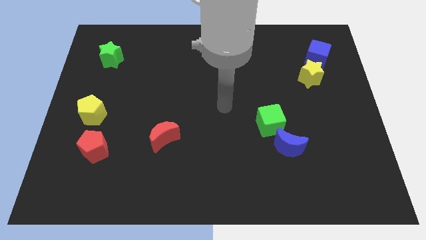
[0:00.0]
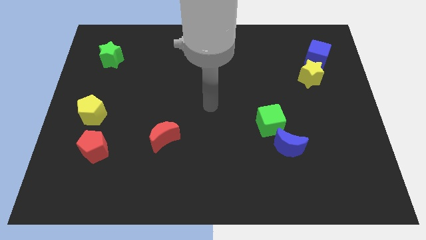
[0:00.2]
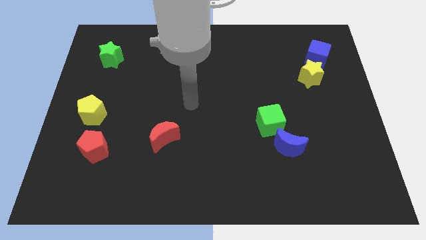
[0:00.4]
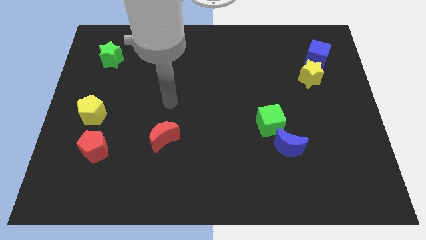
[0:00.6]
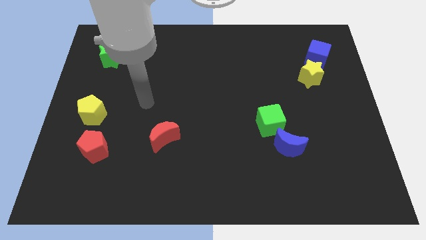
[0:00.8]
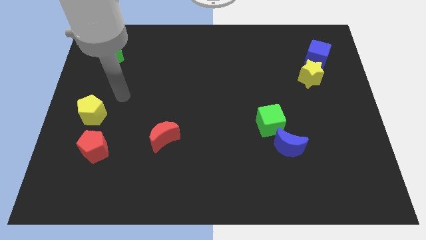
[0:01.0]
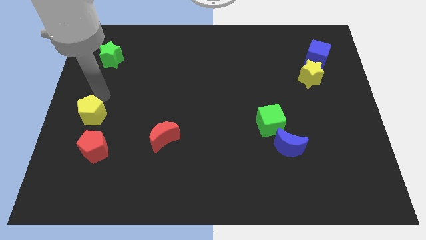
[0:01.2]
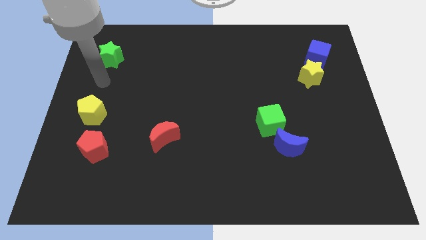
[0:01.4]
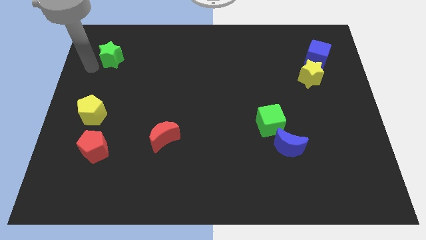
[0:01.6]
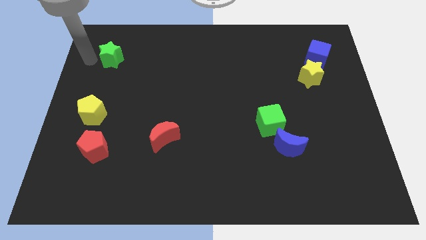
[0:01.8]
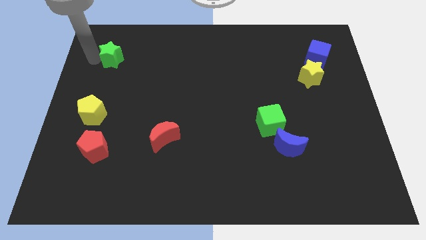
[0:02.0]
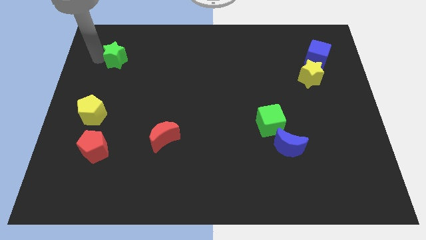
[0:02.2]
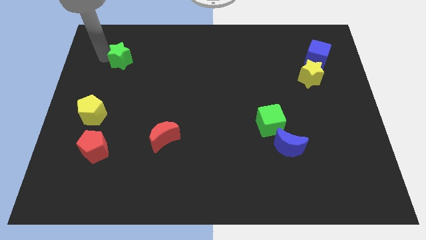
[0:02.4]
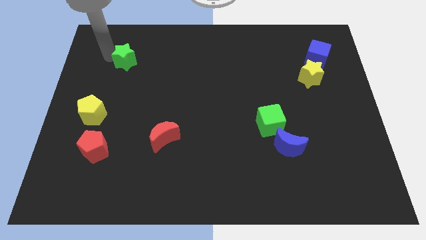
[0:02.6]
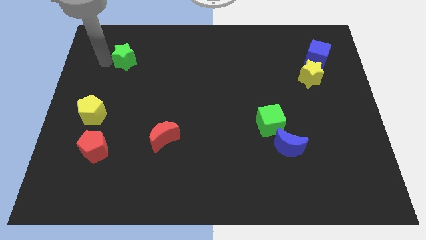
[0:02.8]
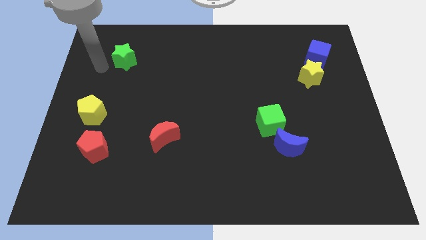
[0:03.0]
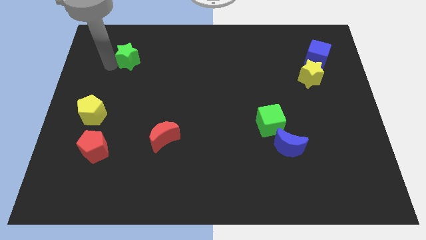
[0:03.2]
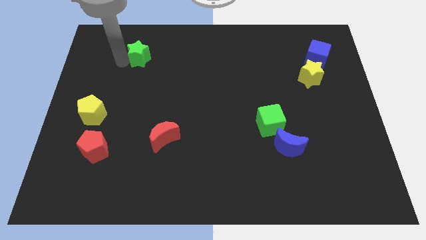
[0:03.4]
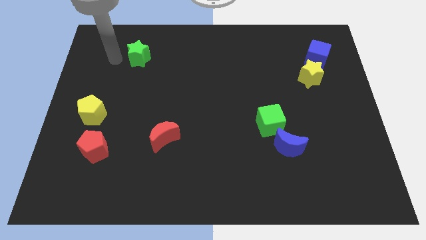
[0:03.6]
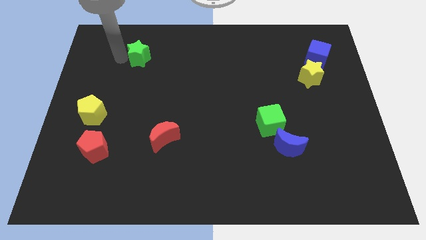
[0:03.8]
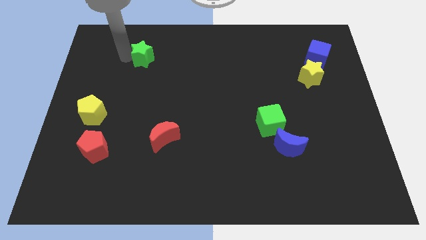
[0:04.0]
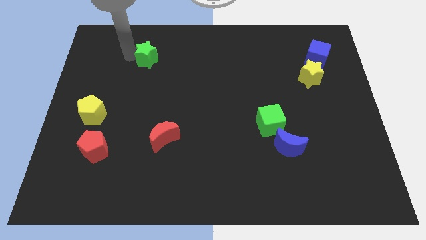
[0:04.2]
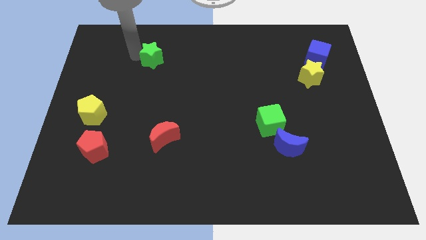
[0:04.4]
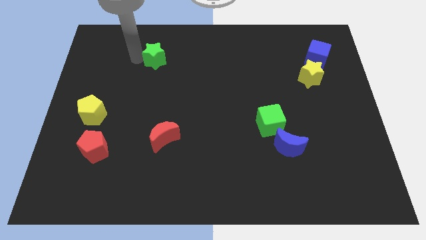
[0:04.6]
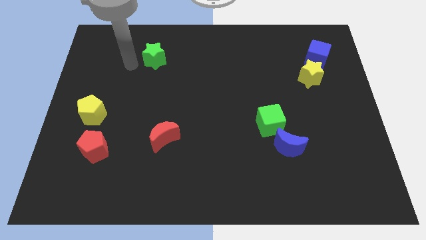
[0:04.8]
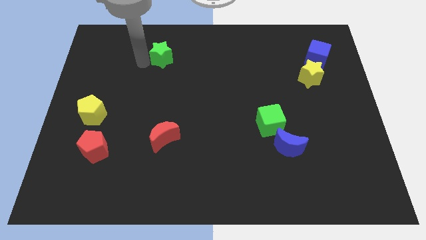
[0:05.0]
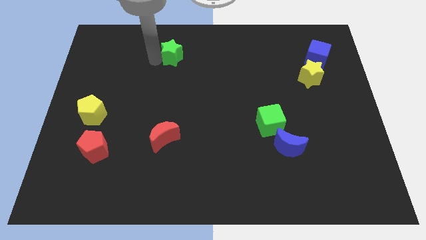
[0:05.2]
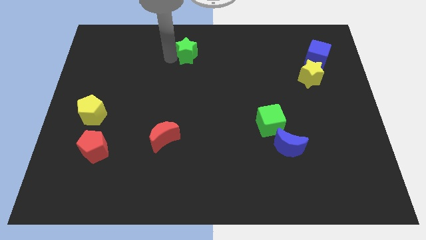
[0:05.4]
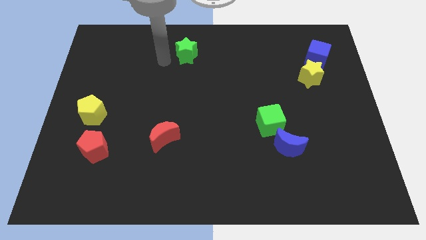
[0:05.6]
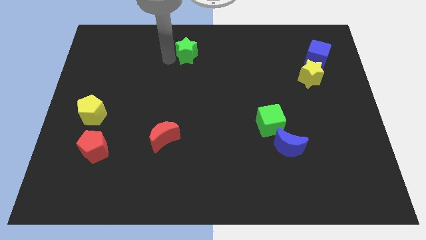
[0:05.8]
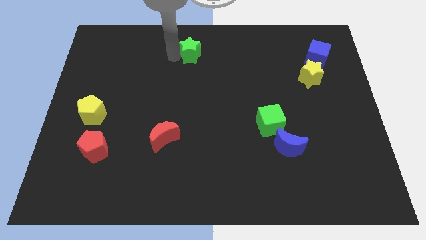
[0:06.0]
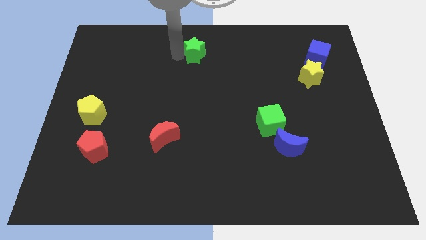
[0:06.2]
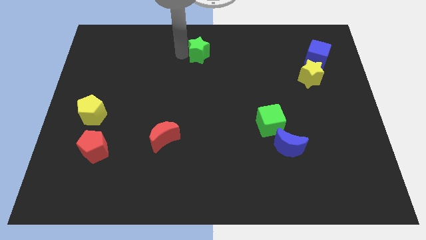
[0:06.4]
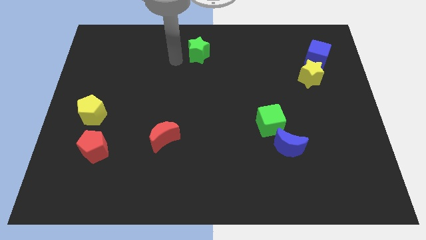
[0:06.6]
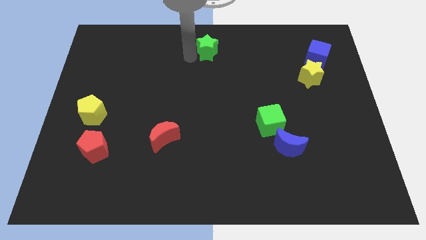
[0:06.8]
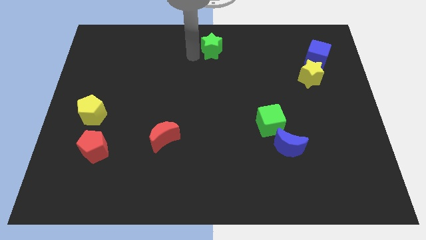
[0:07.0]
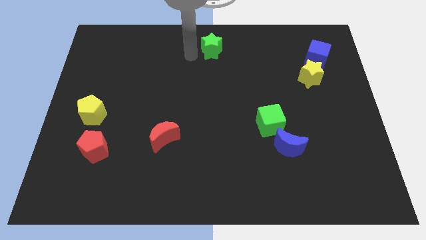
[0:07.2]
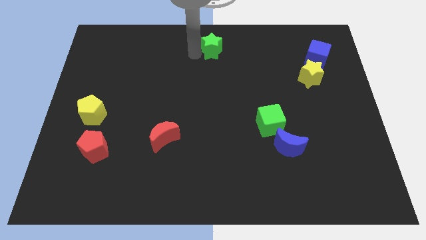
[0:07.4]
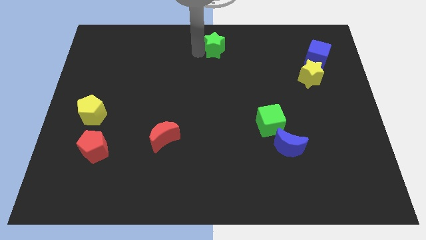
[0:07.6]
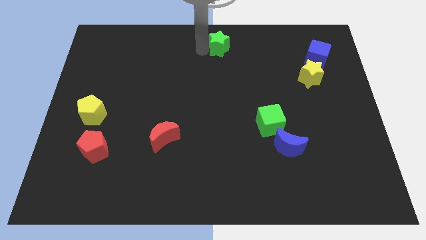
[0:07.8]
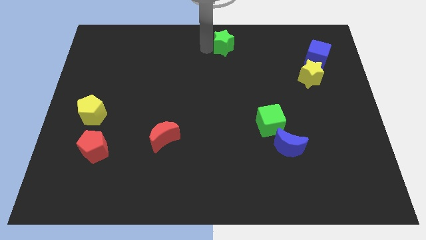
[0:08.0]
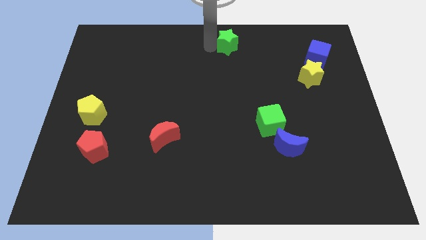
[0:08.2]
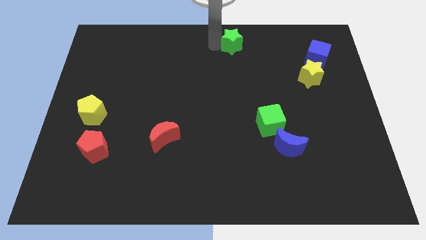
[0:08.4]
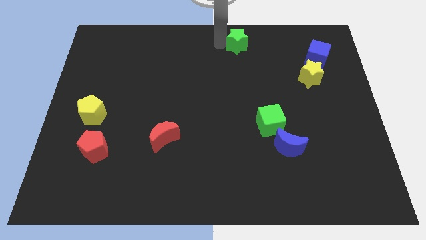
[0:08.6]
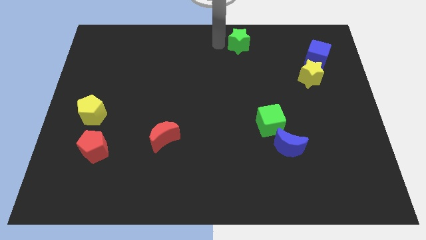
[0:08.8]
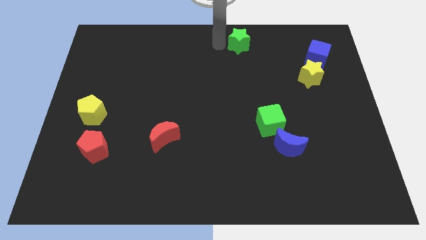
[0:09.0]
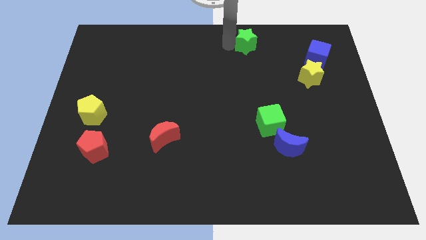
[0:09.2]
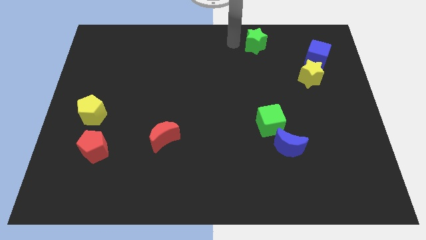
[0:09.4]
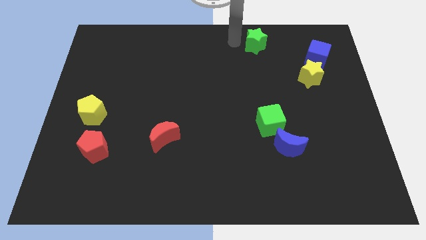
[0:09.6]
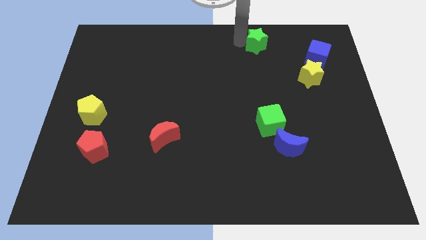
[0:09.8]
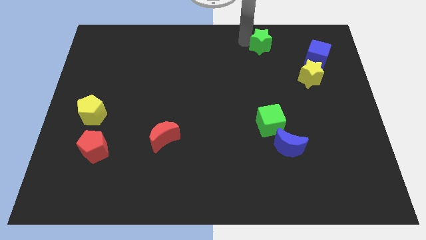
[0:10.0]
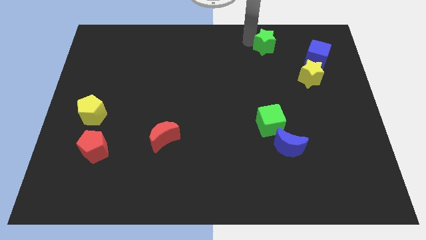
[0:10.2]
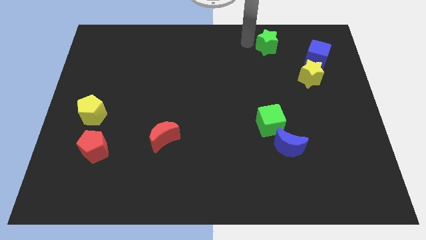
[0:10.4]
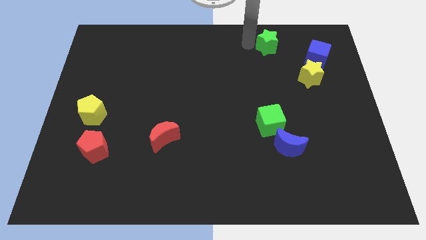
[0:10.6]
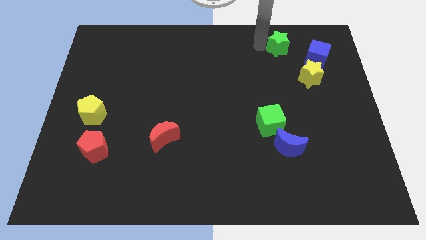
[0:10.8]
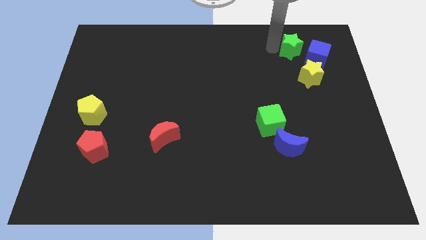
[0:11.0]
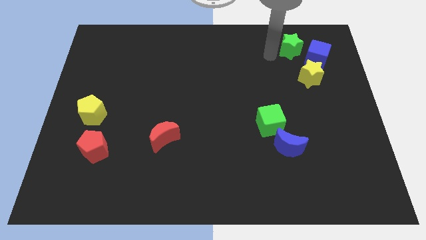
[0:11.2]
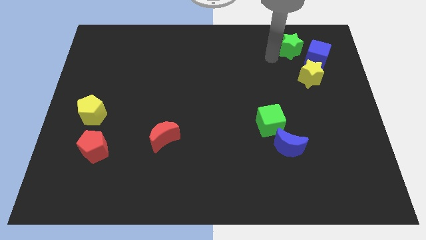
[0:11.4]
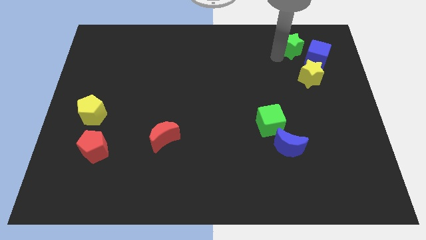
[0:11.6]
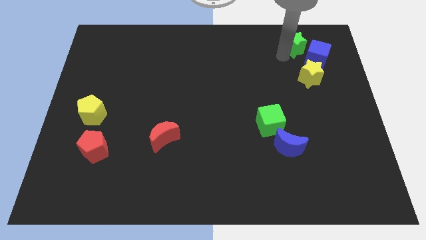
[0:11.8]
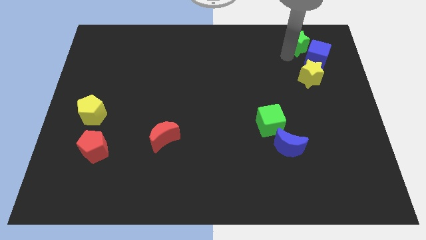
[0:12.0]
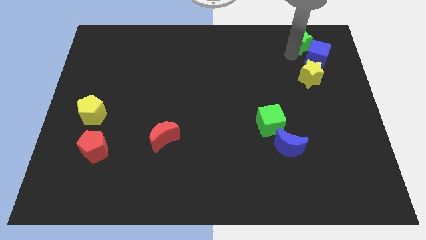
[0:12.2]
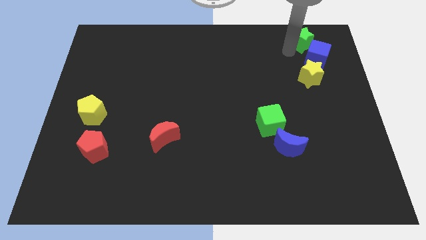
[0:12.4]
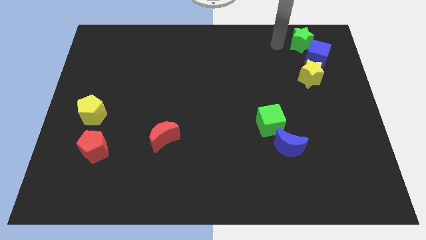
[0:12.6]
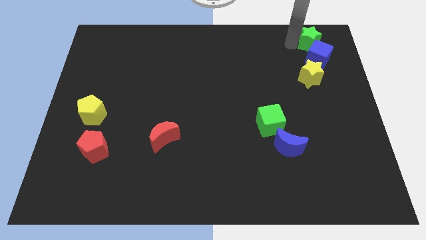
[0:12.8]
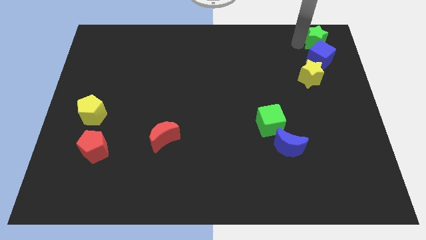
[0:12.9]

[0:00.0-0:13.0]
move the green star to the upper right corner
